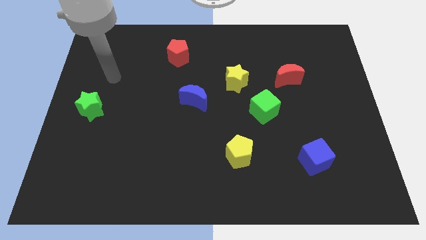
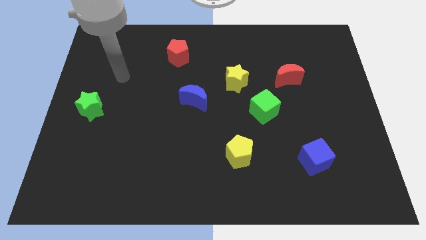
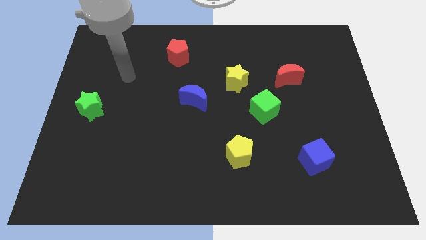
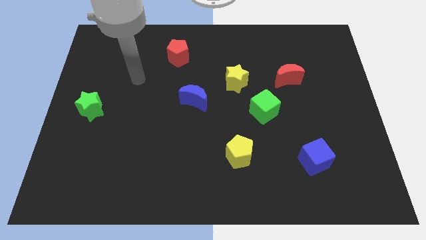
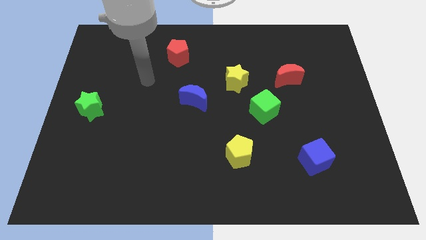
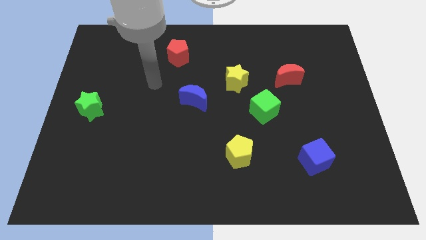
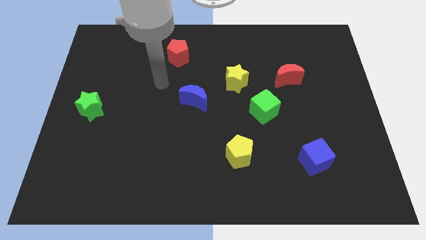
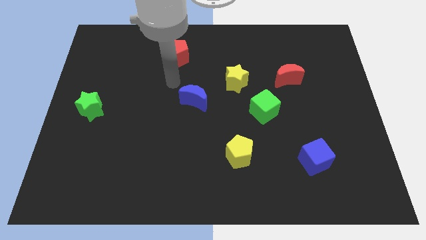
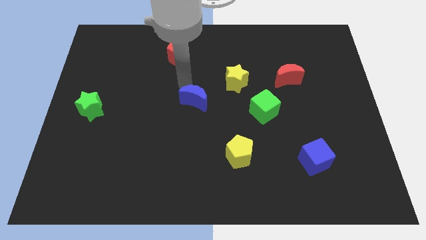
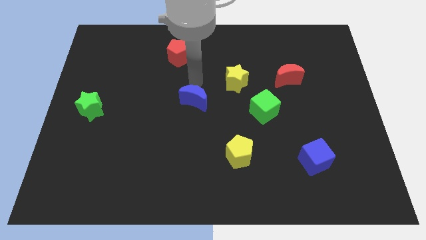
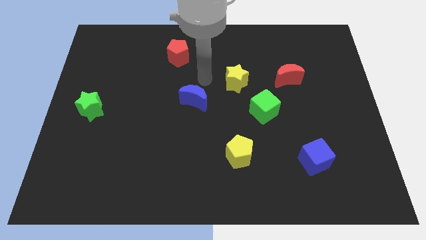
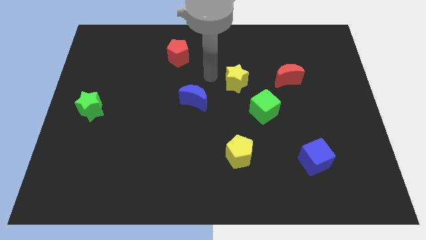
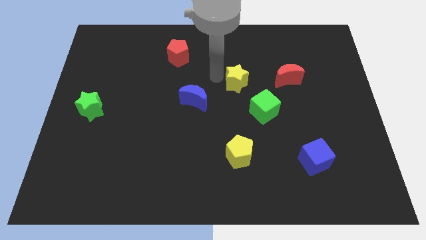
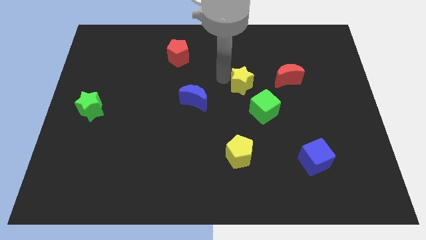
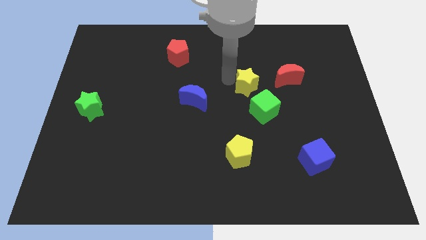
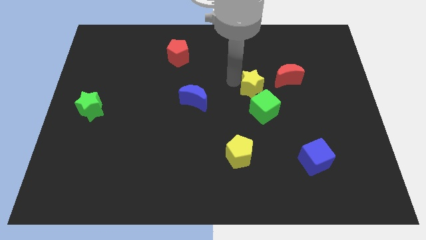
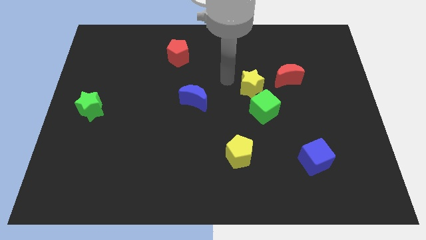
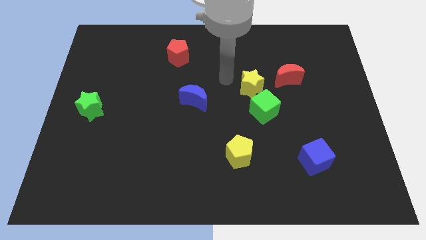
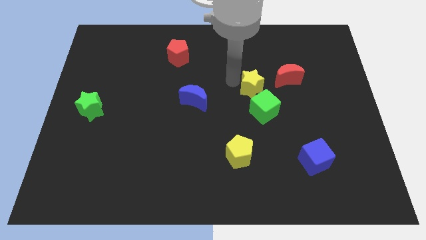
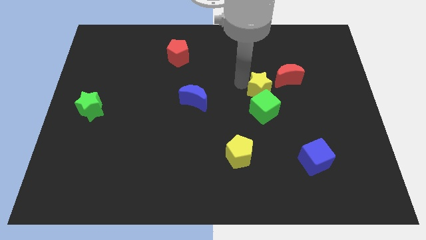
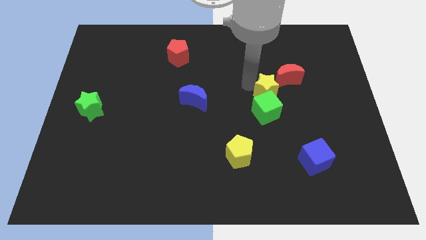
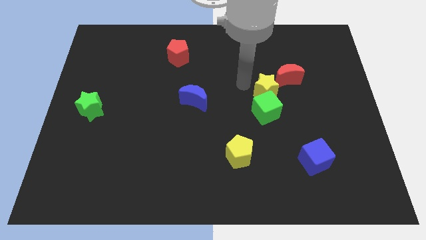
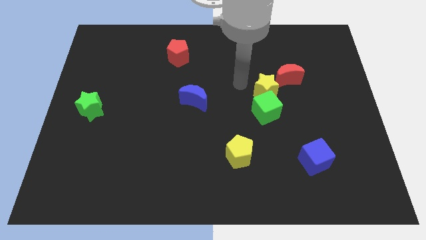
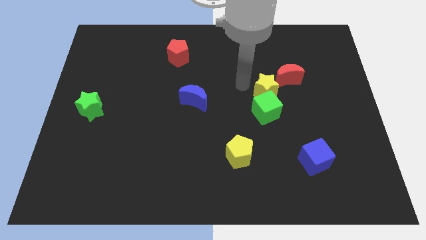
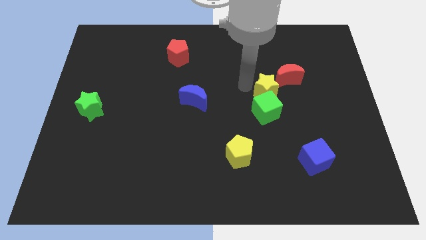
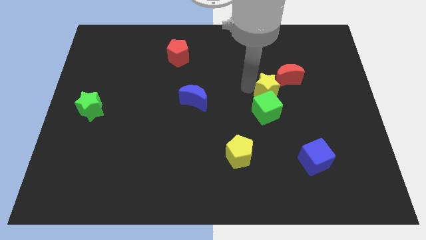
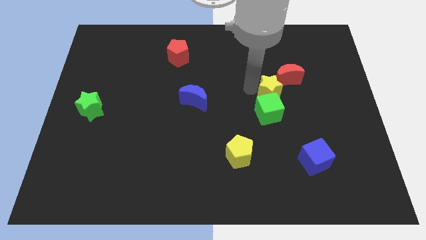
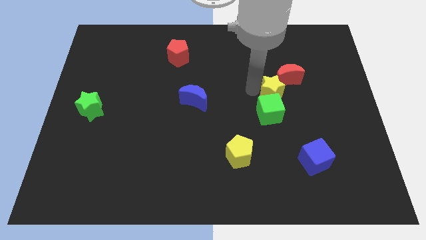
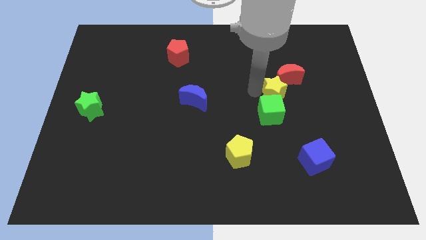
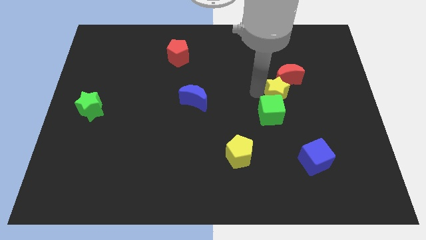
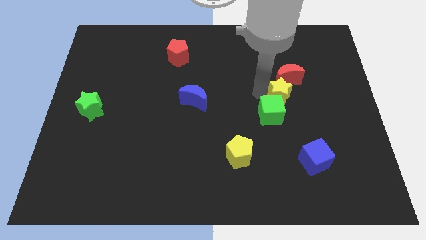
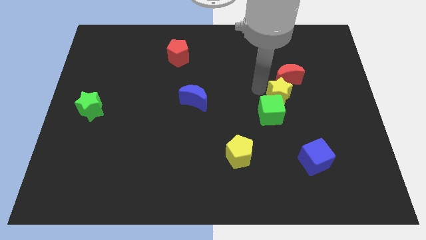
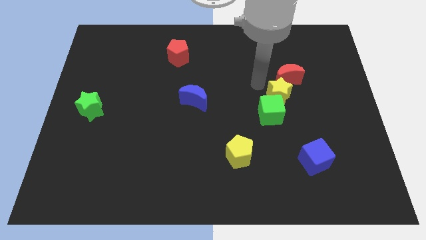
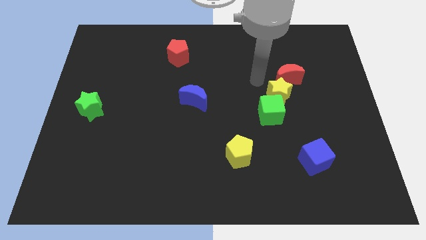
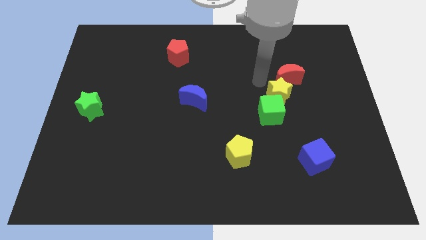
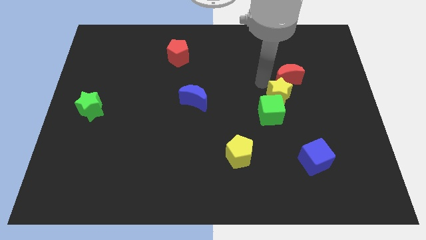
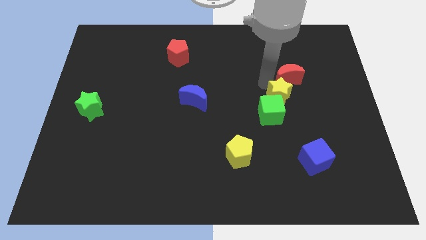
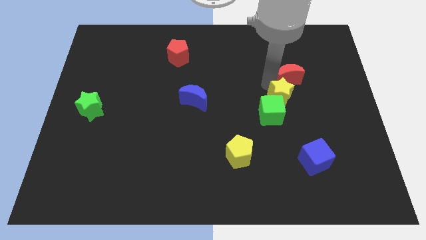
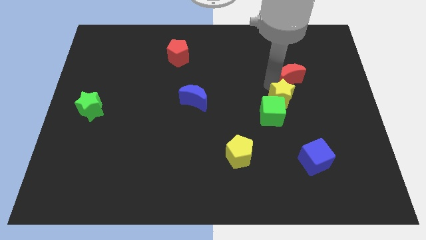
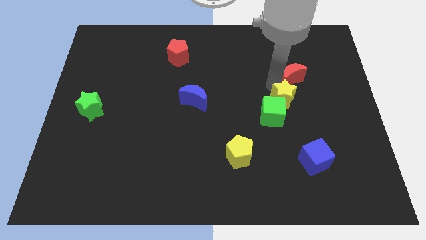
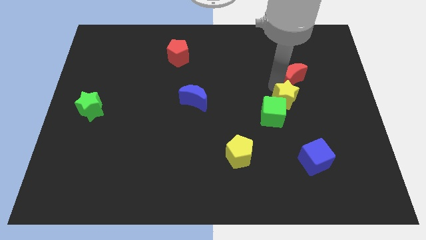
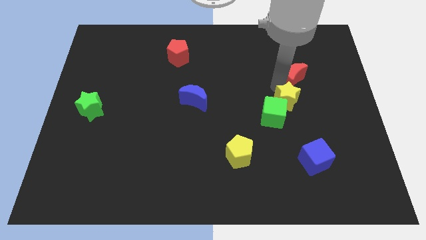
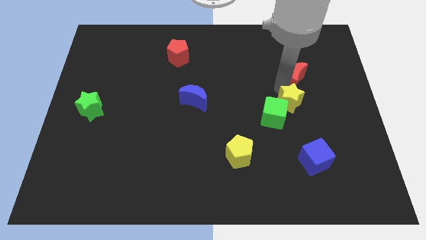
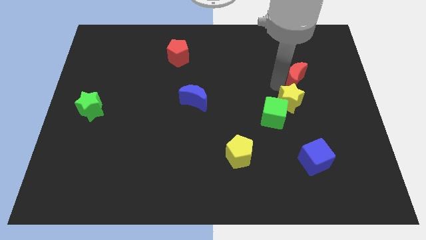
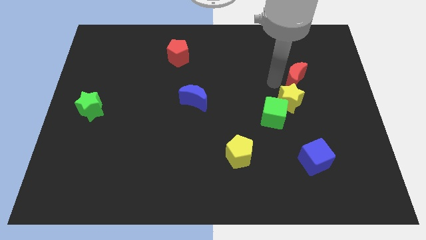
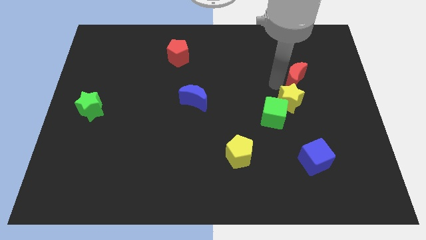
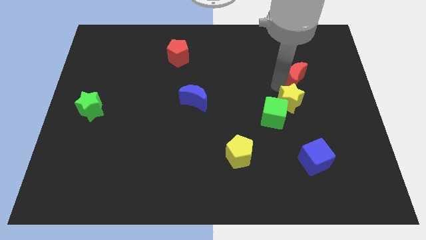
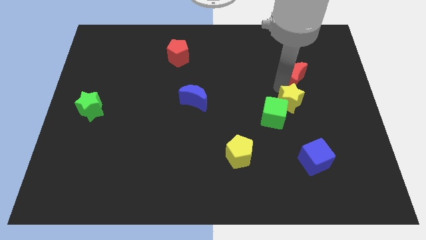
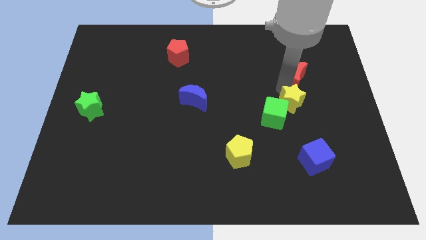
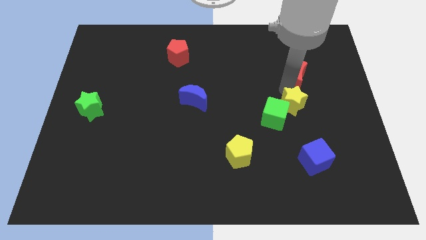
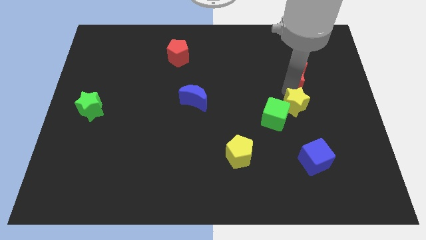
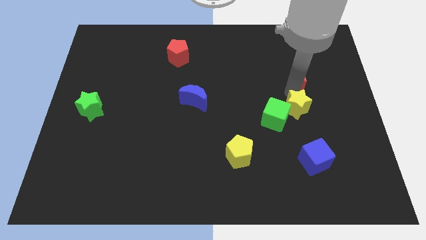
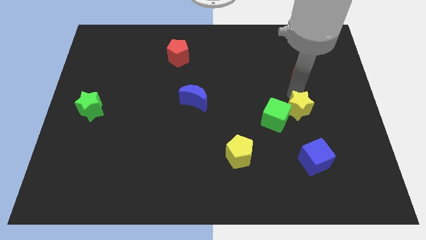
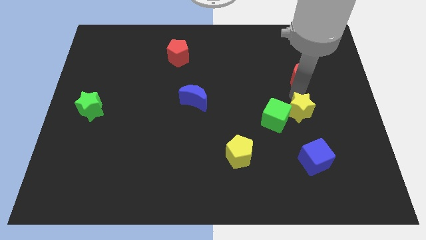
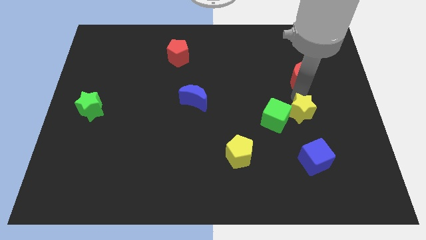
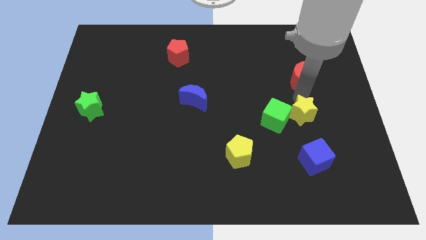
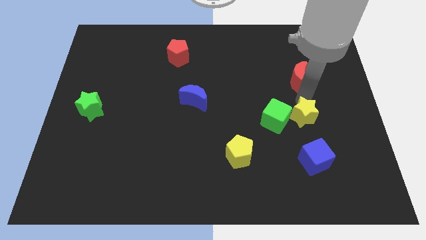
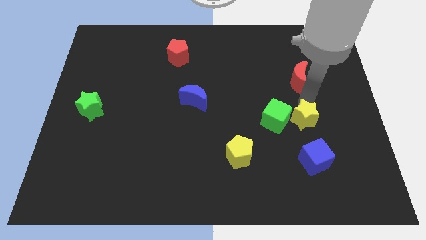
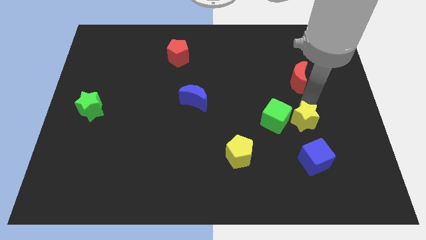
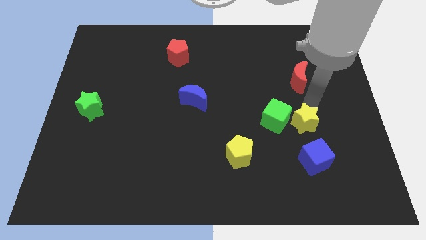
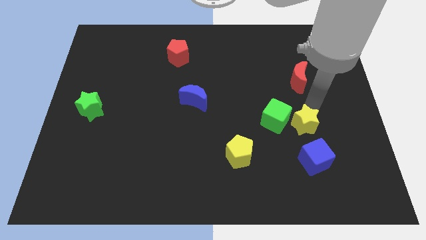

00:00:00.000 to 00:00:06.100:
slide the yellow star downwards and then right

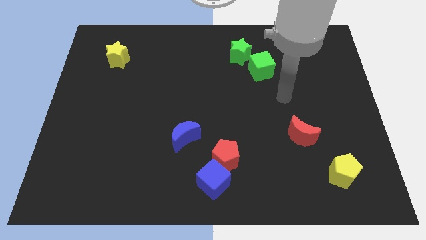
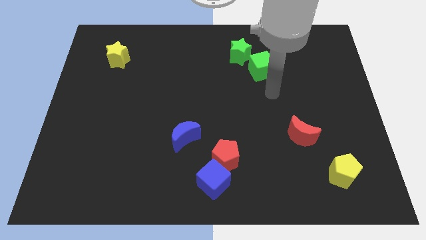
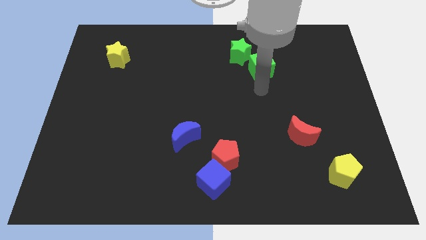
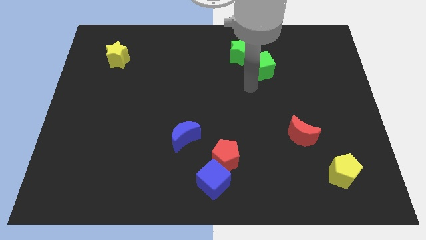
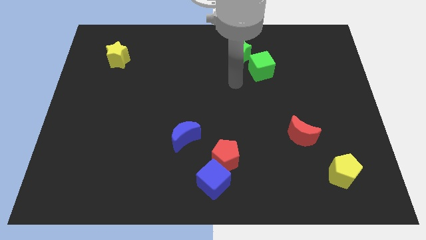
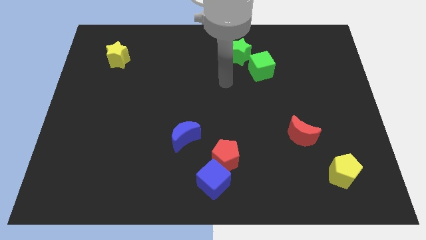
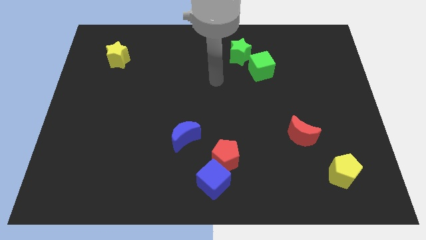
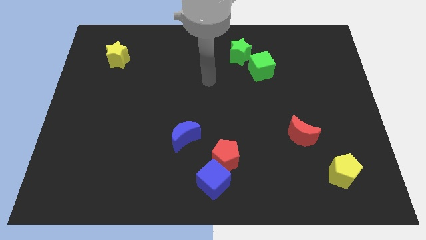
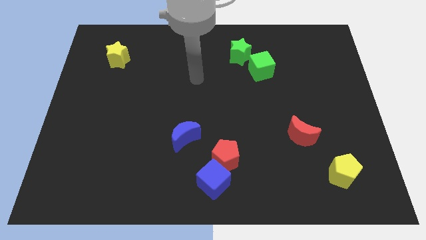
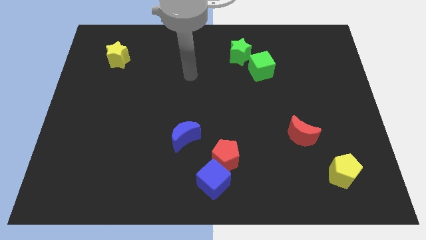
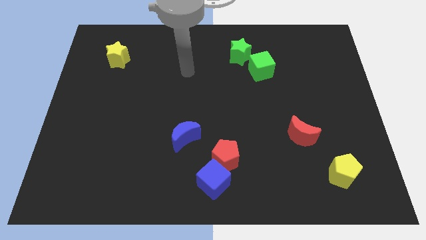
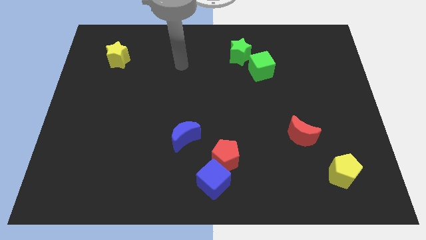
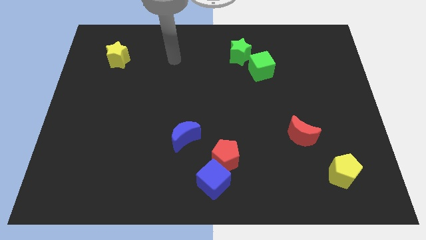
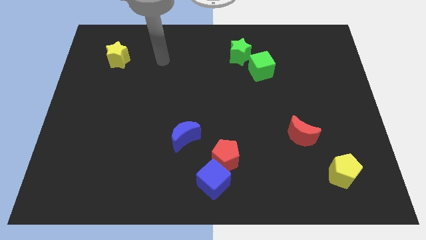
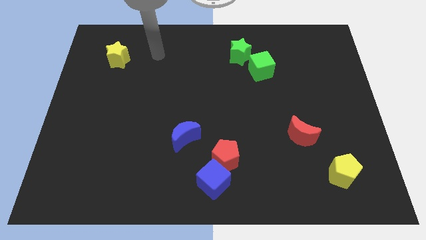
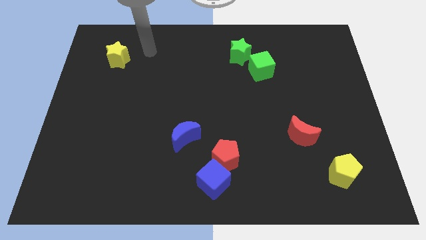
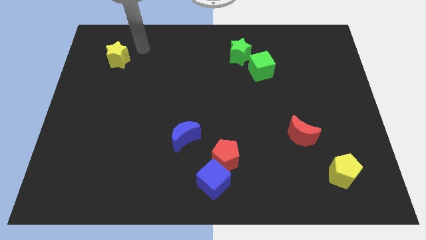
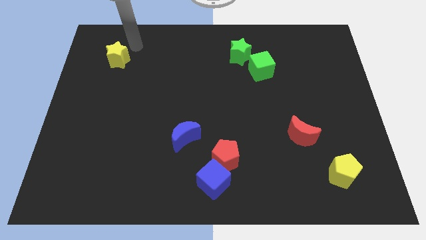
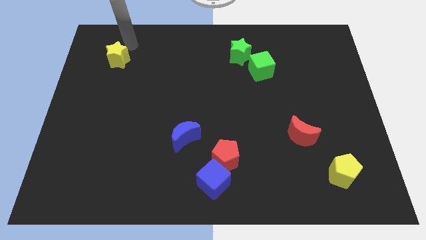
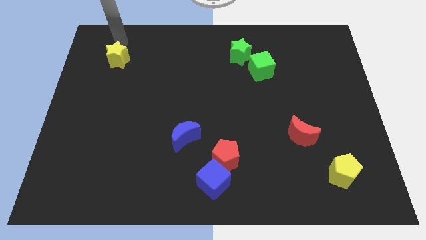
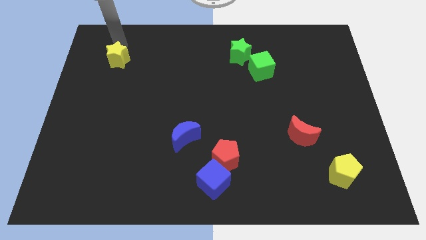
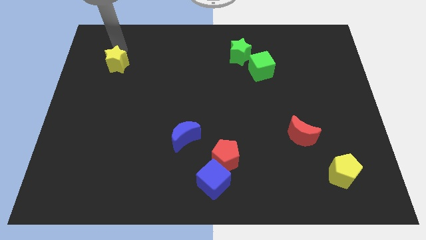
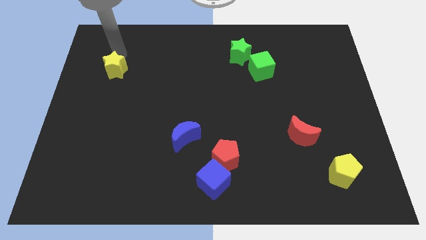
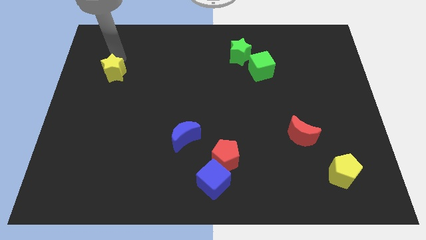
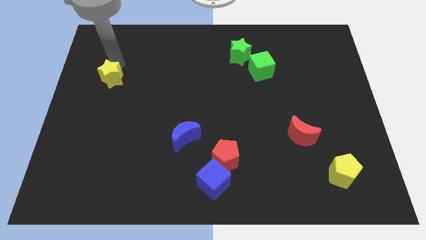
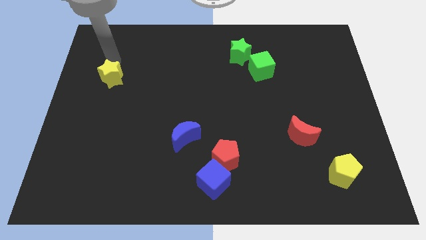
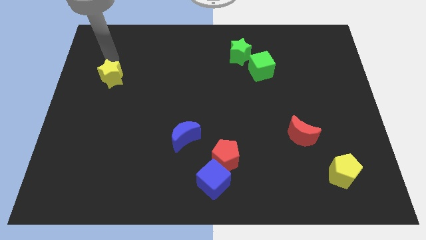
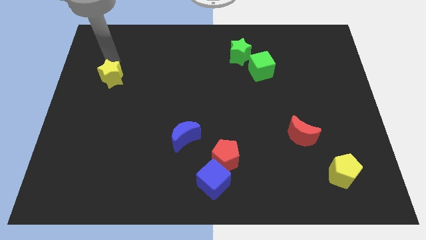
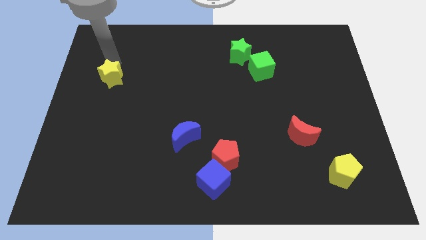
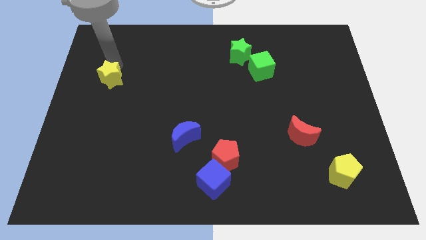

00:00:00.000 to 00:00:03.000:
push the yellow star a little bit down
